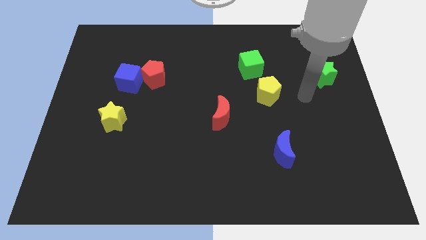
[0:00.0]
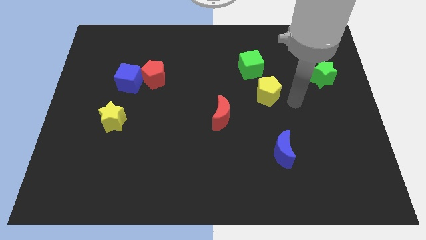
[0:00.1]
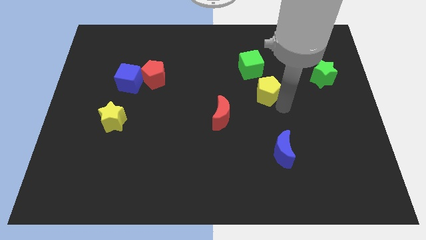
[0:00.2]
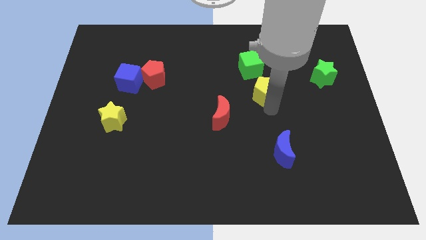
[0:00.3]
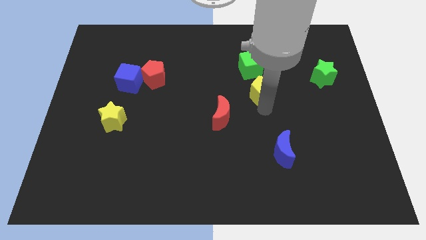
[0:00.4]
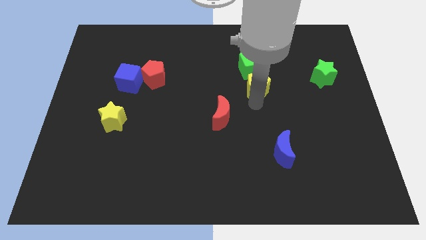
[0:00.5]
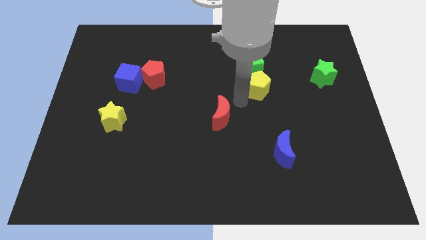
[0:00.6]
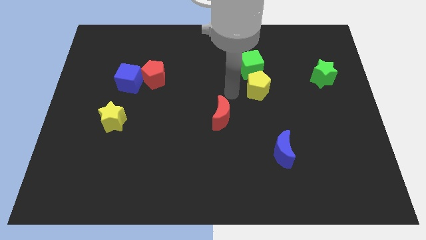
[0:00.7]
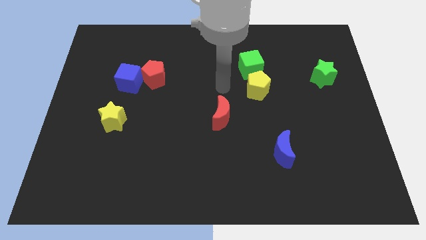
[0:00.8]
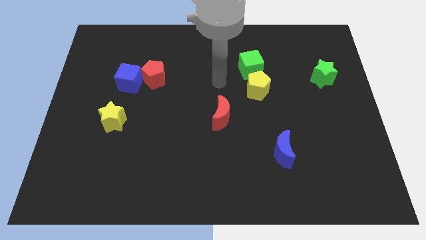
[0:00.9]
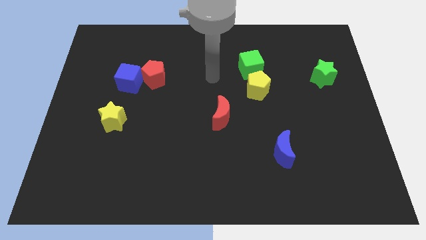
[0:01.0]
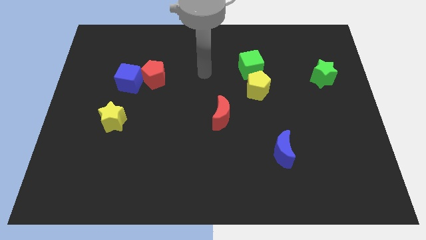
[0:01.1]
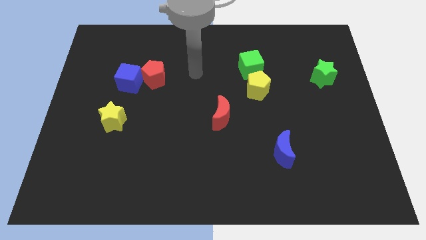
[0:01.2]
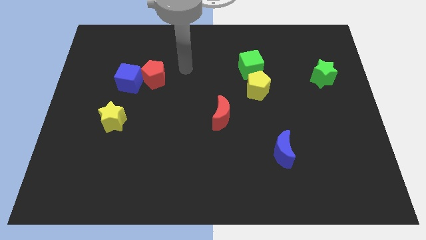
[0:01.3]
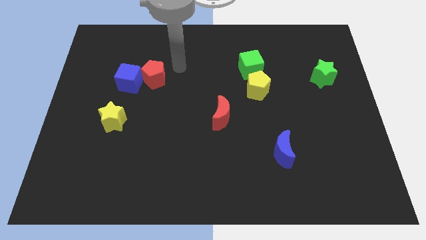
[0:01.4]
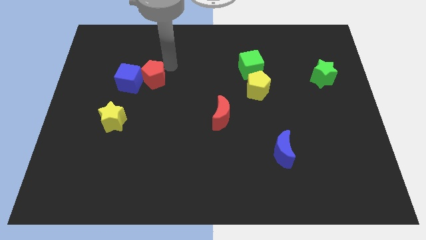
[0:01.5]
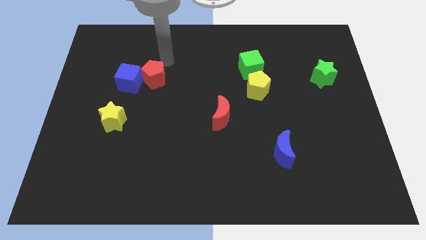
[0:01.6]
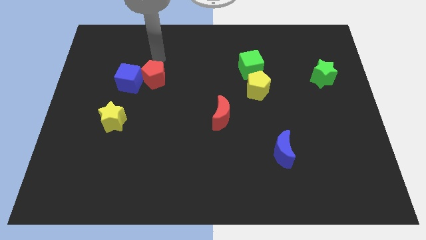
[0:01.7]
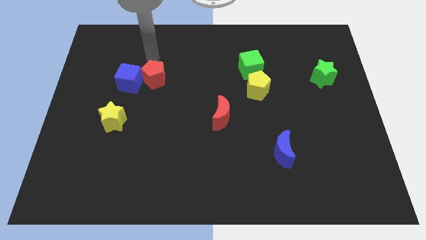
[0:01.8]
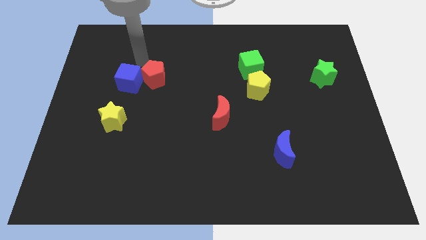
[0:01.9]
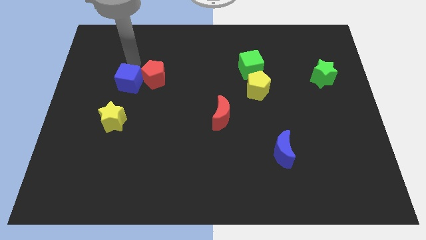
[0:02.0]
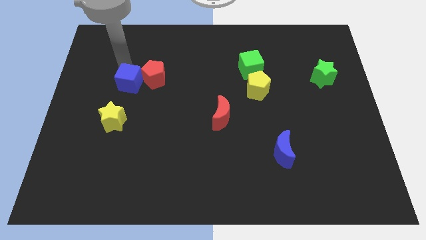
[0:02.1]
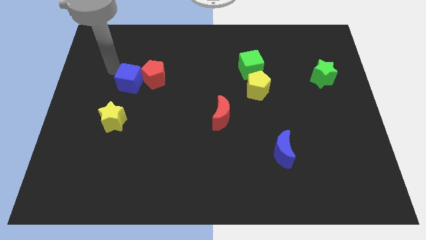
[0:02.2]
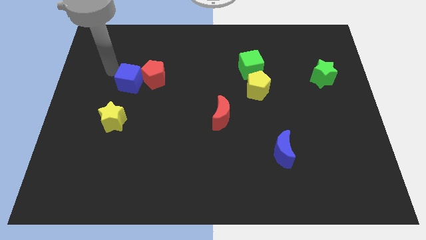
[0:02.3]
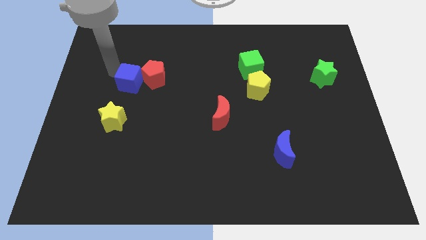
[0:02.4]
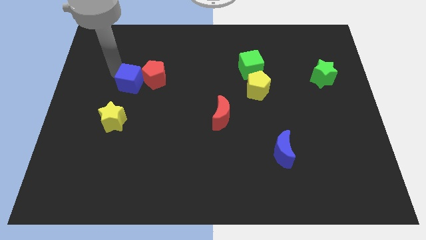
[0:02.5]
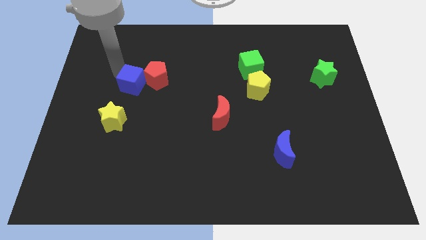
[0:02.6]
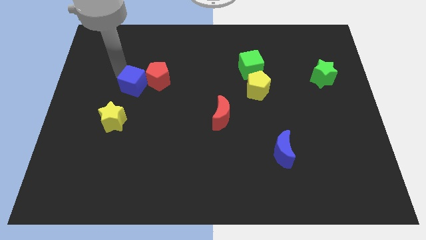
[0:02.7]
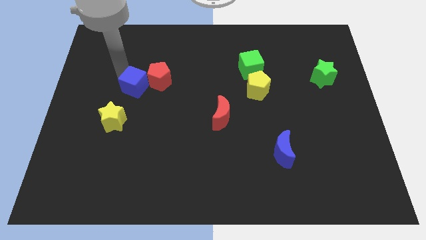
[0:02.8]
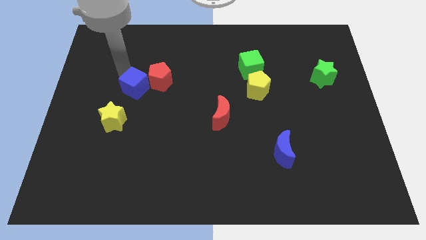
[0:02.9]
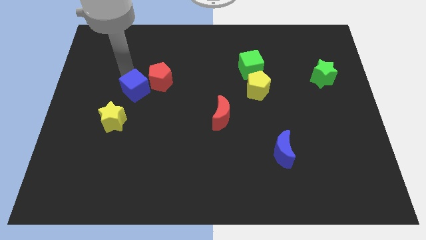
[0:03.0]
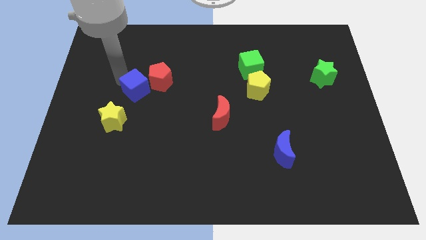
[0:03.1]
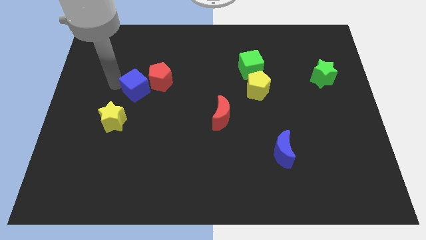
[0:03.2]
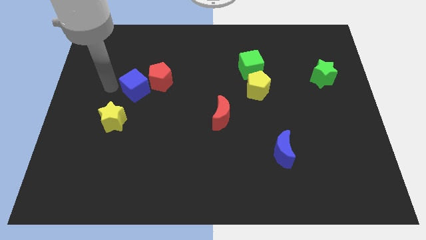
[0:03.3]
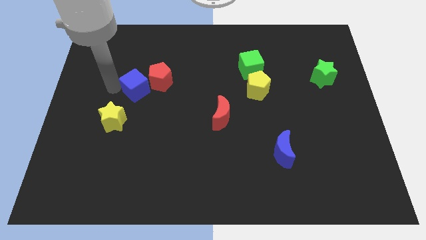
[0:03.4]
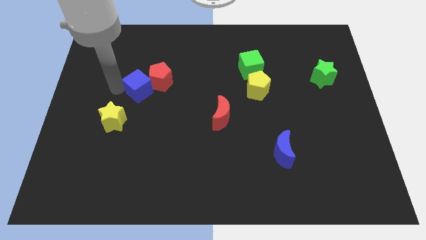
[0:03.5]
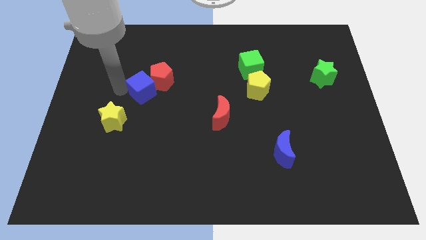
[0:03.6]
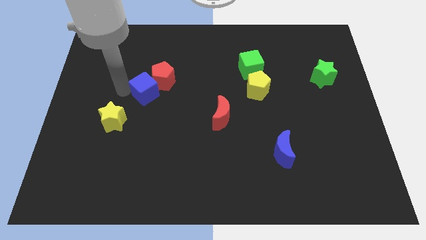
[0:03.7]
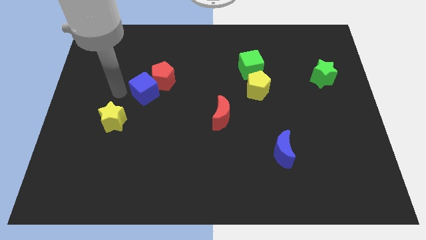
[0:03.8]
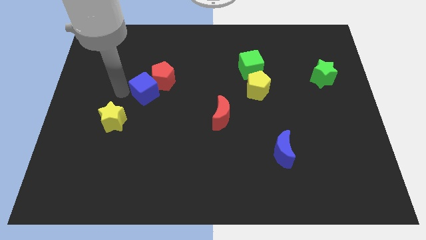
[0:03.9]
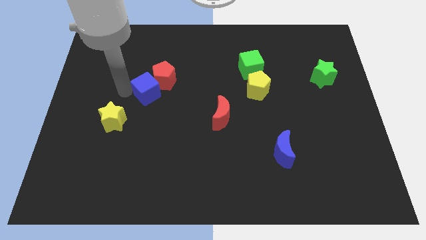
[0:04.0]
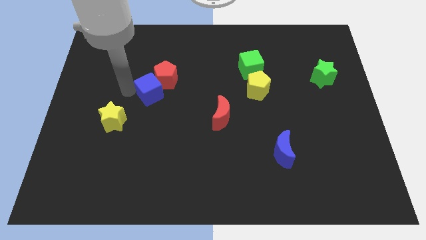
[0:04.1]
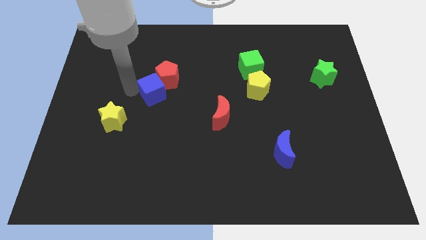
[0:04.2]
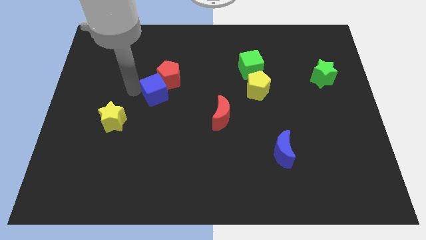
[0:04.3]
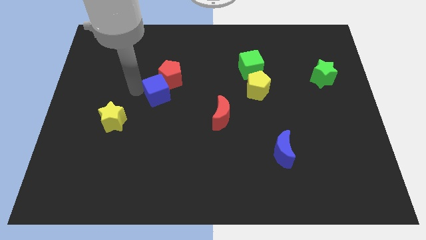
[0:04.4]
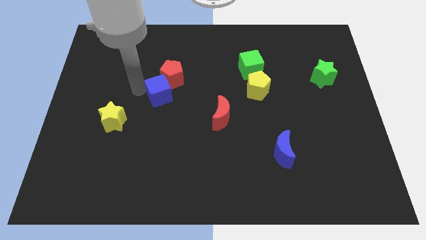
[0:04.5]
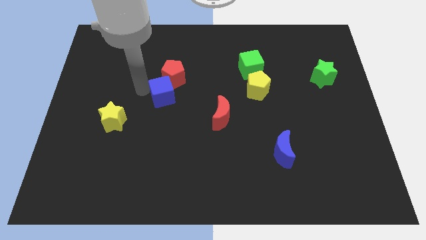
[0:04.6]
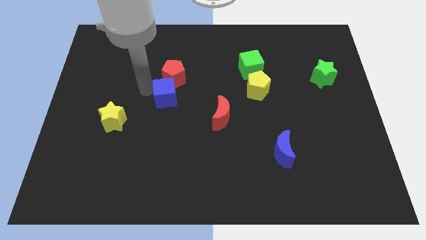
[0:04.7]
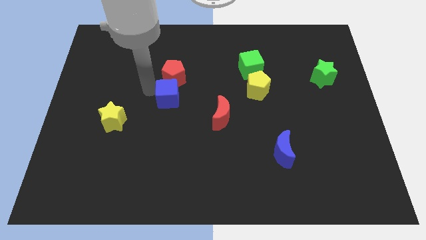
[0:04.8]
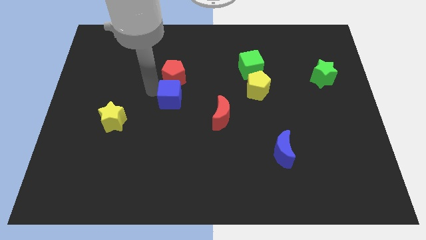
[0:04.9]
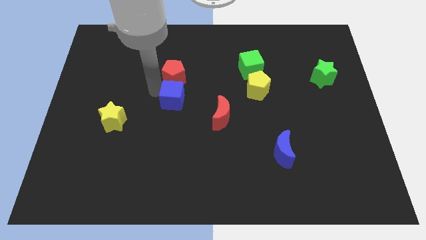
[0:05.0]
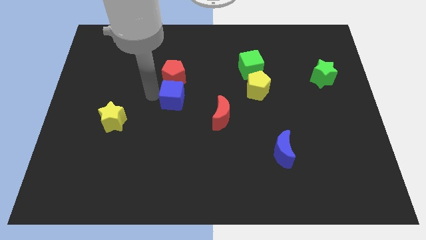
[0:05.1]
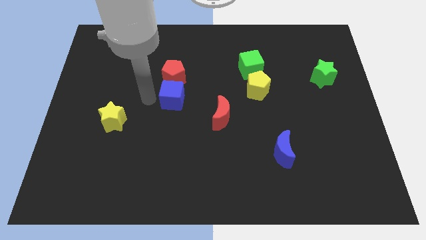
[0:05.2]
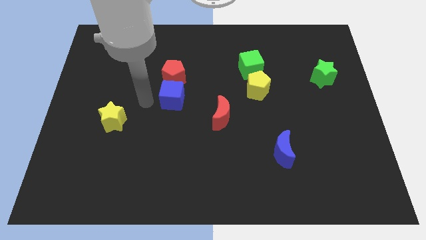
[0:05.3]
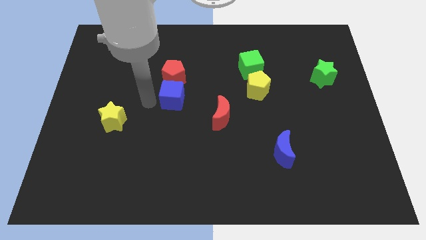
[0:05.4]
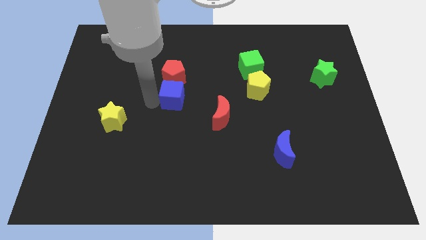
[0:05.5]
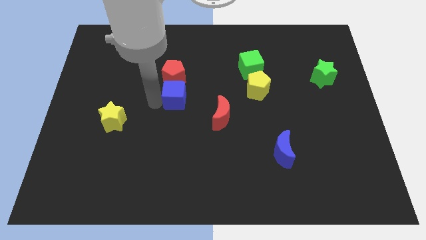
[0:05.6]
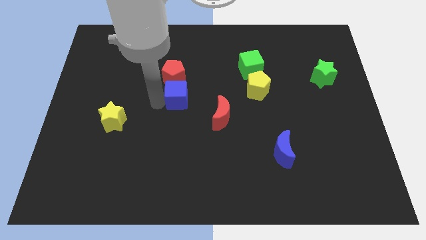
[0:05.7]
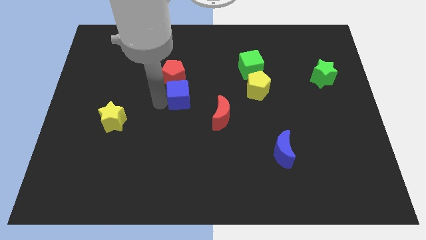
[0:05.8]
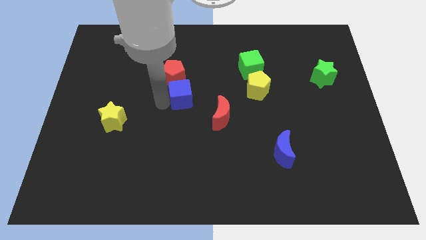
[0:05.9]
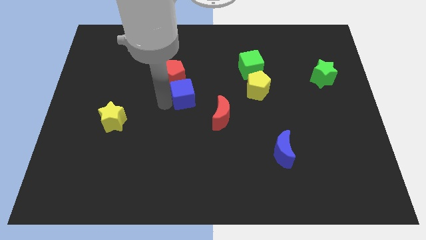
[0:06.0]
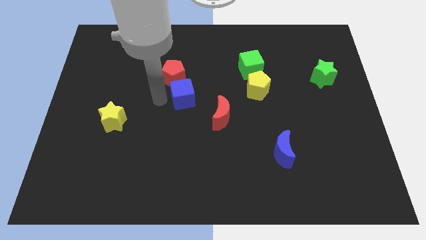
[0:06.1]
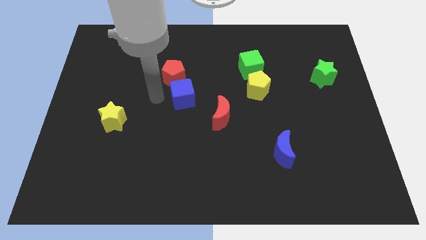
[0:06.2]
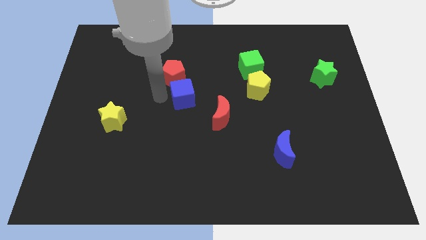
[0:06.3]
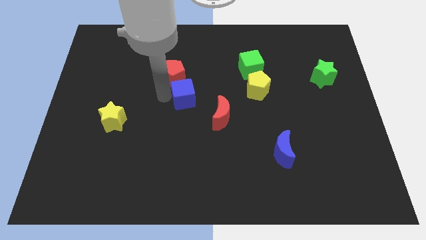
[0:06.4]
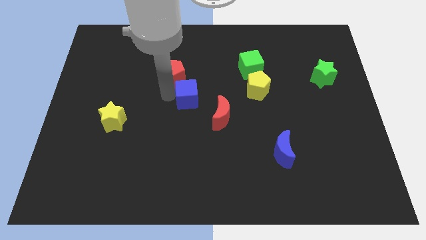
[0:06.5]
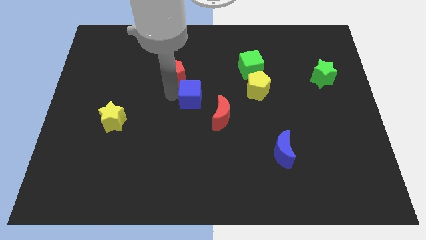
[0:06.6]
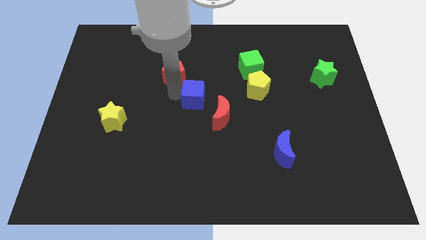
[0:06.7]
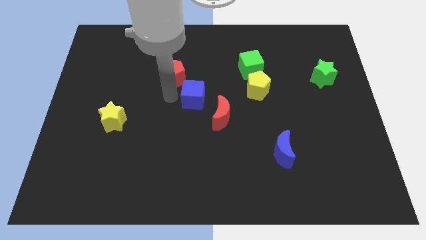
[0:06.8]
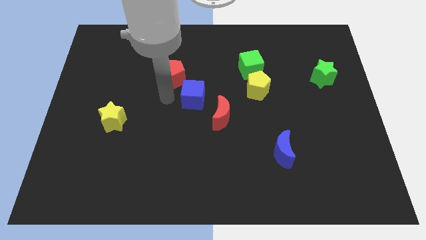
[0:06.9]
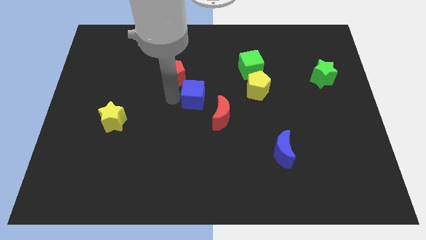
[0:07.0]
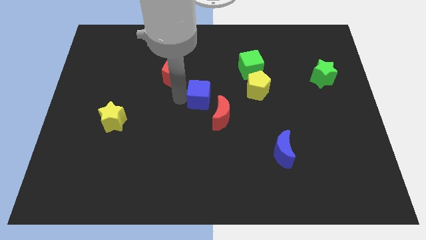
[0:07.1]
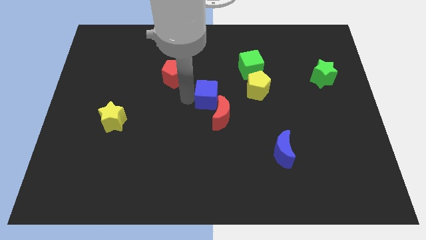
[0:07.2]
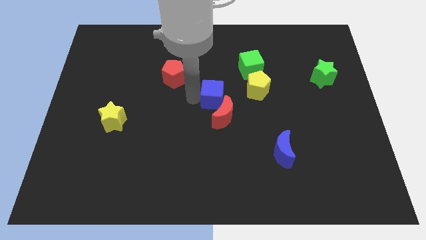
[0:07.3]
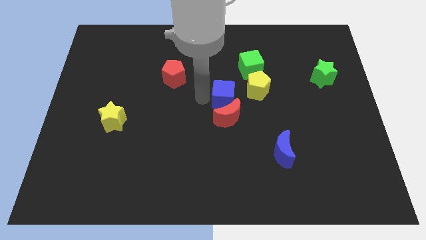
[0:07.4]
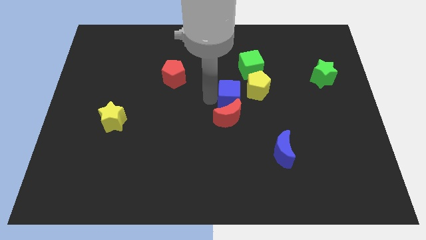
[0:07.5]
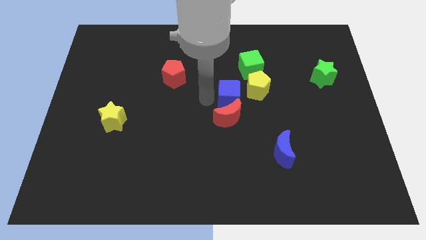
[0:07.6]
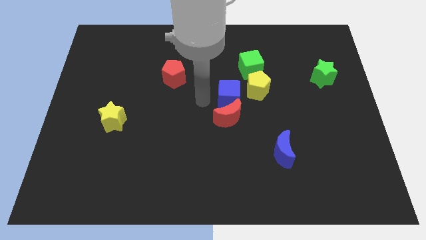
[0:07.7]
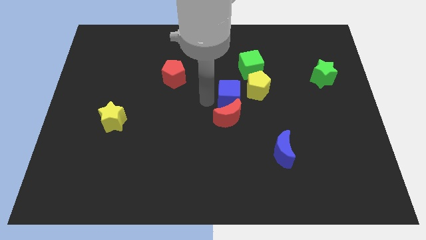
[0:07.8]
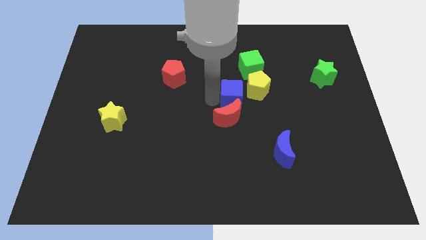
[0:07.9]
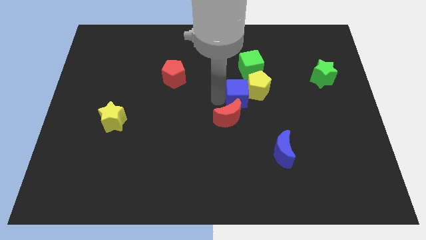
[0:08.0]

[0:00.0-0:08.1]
move the blue cube close to the yellow pentagon
